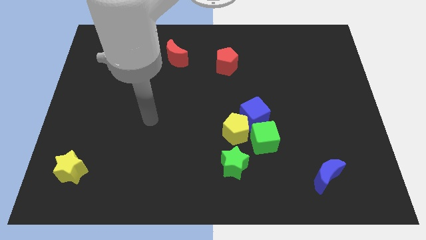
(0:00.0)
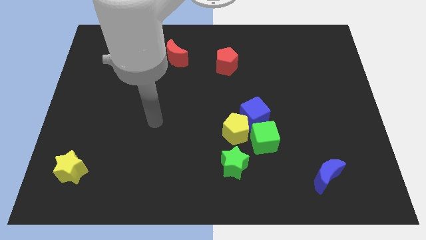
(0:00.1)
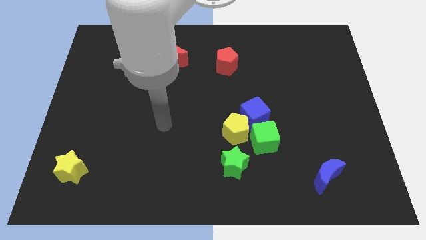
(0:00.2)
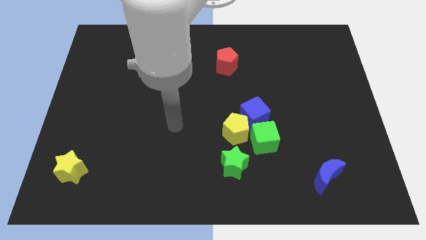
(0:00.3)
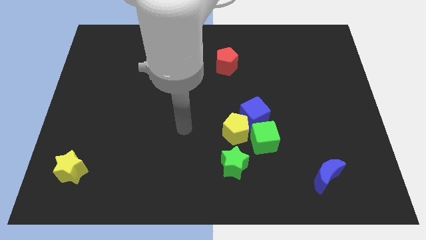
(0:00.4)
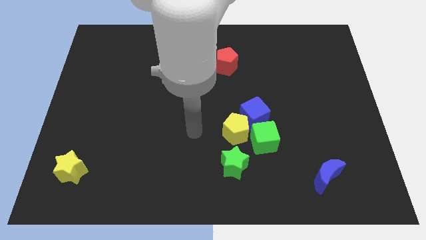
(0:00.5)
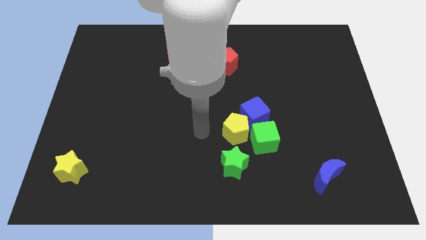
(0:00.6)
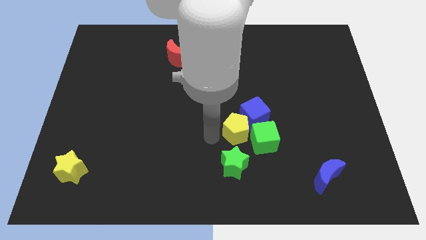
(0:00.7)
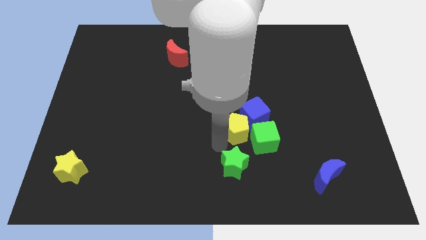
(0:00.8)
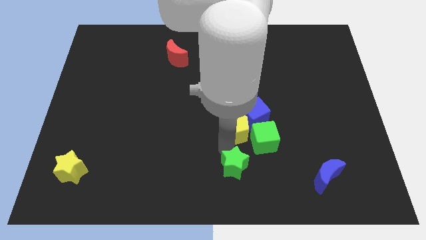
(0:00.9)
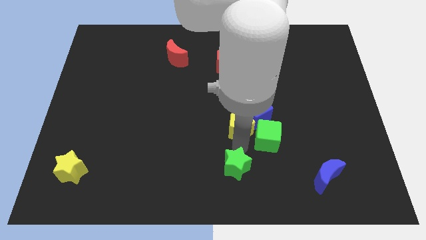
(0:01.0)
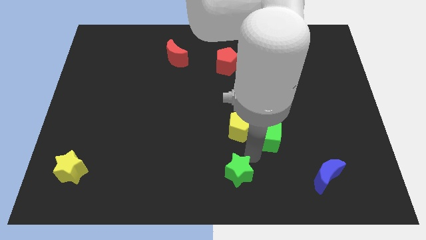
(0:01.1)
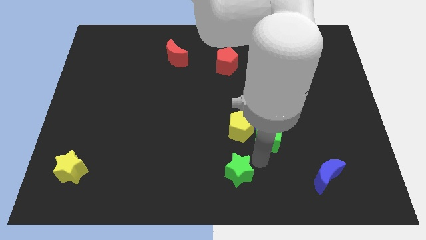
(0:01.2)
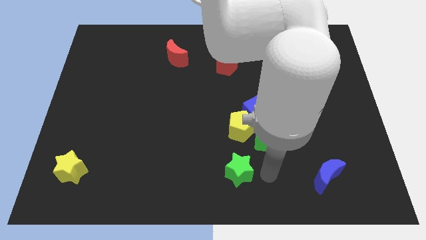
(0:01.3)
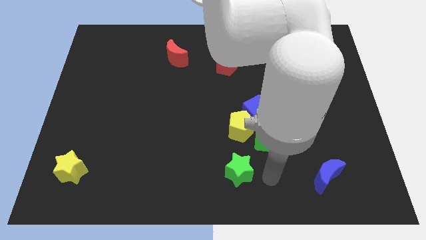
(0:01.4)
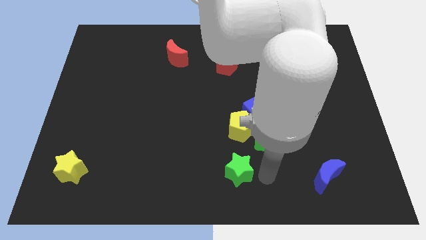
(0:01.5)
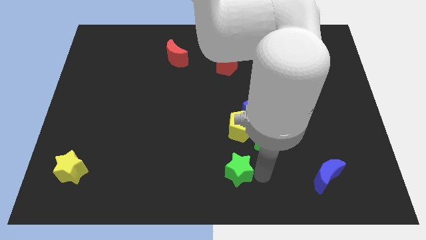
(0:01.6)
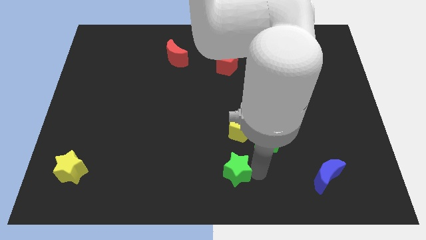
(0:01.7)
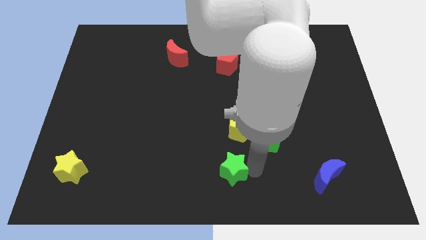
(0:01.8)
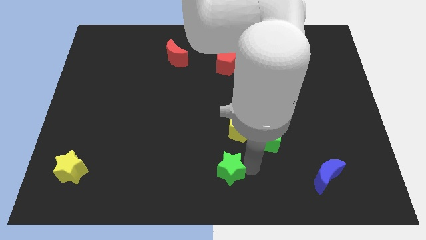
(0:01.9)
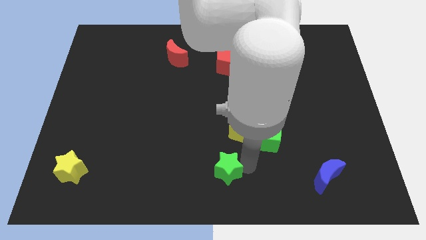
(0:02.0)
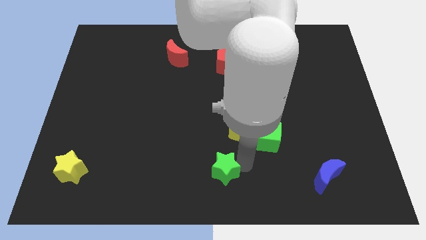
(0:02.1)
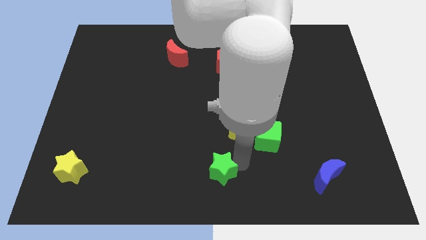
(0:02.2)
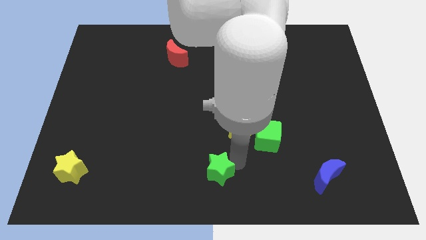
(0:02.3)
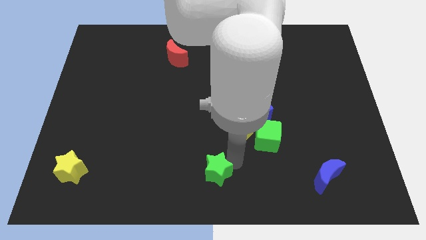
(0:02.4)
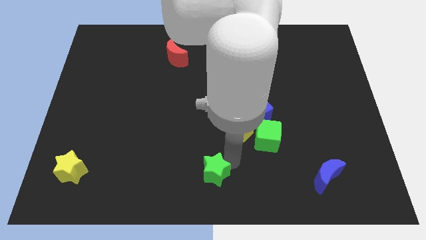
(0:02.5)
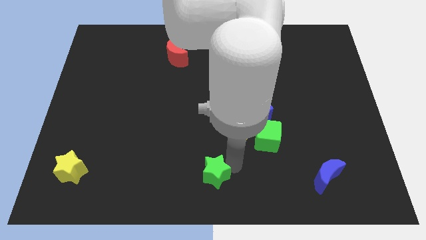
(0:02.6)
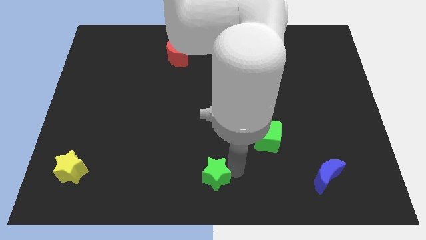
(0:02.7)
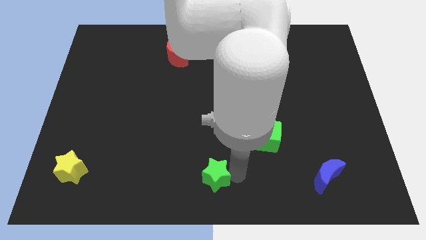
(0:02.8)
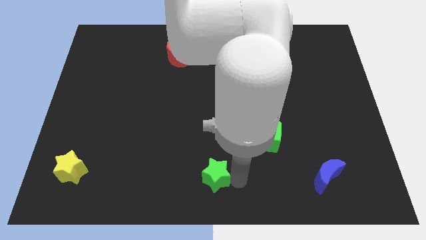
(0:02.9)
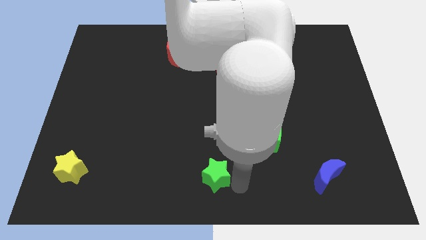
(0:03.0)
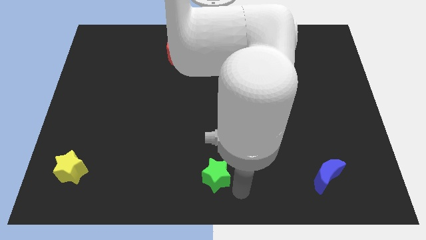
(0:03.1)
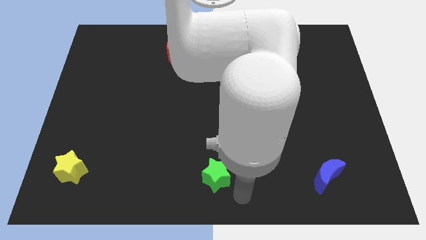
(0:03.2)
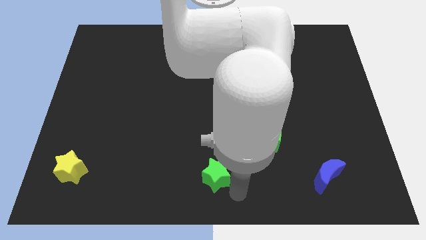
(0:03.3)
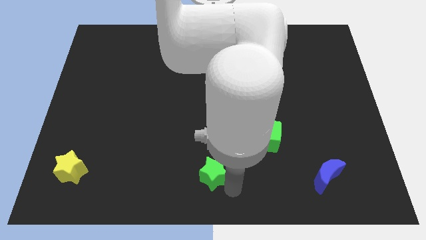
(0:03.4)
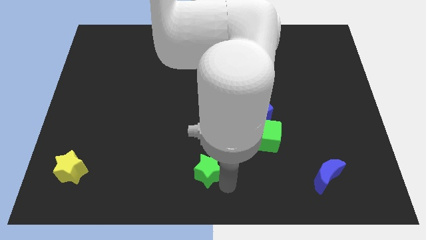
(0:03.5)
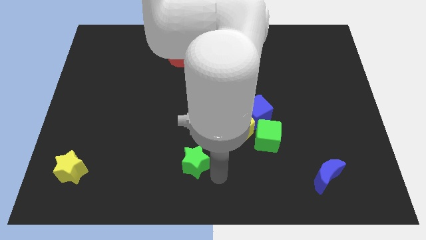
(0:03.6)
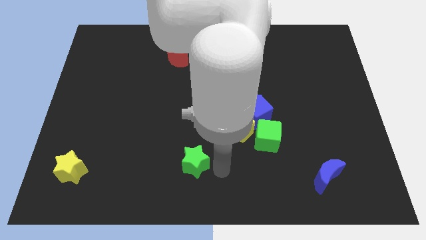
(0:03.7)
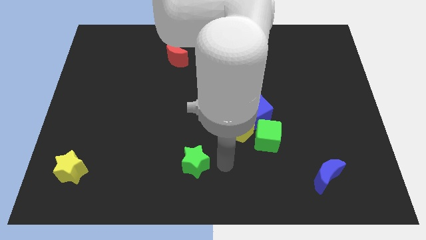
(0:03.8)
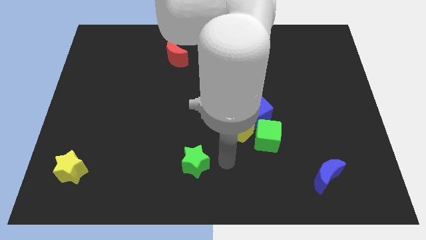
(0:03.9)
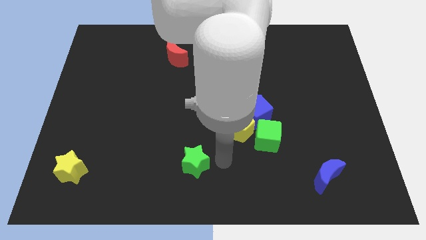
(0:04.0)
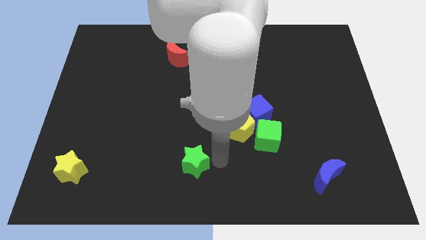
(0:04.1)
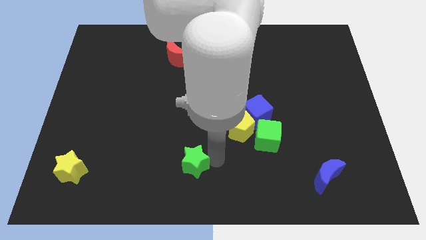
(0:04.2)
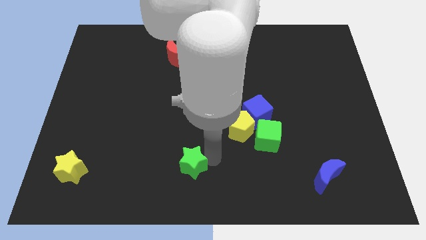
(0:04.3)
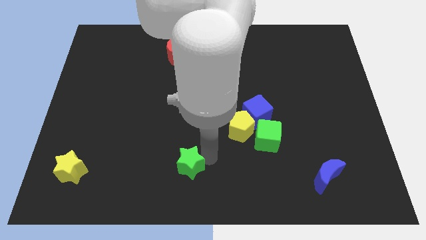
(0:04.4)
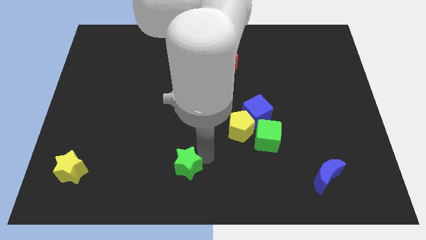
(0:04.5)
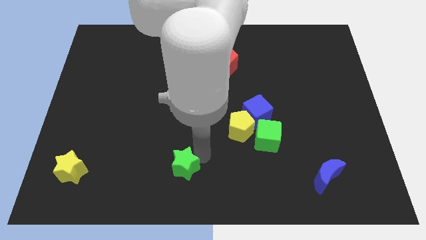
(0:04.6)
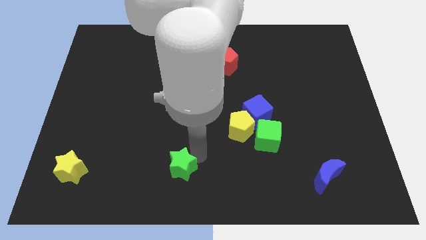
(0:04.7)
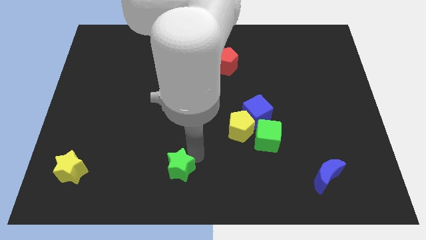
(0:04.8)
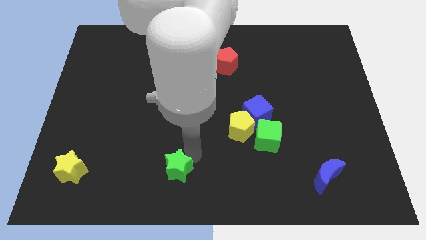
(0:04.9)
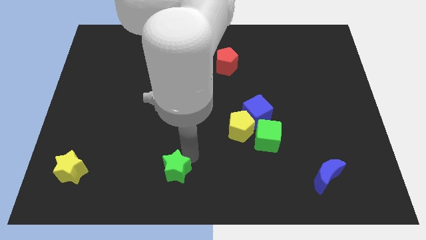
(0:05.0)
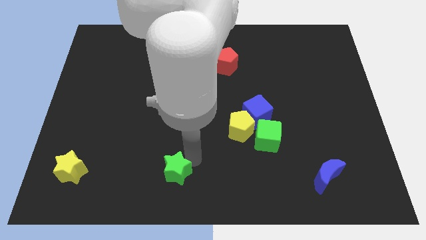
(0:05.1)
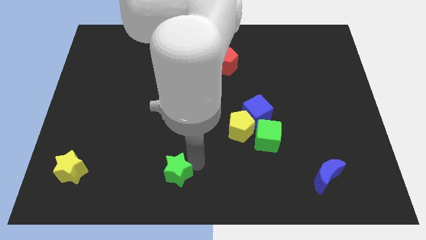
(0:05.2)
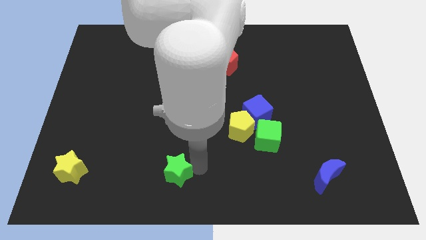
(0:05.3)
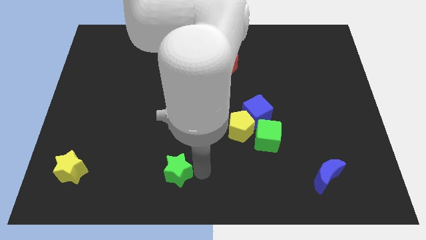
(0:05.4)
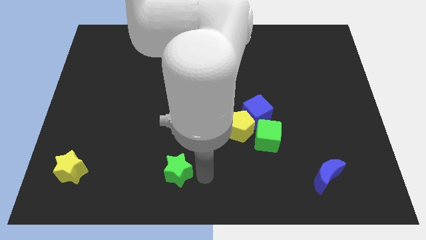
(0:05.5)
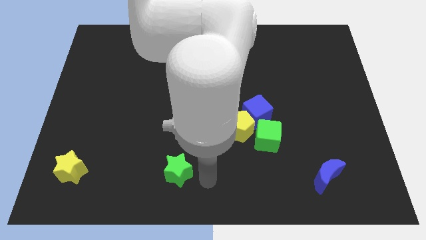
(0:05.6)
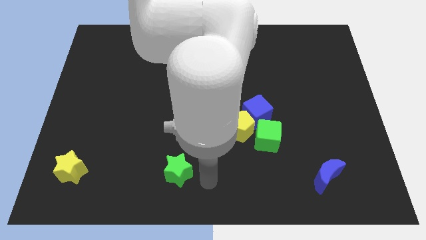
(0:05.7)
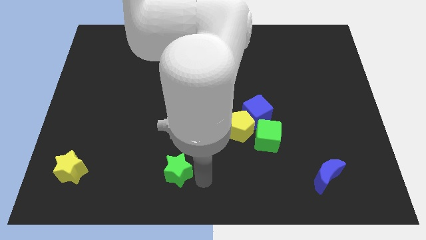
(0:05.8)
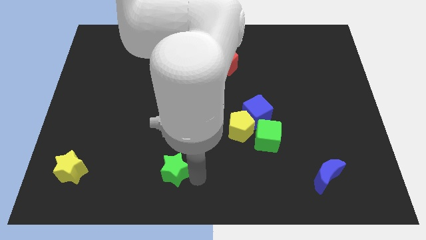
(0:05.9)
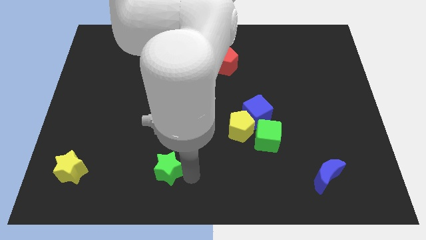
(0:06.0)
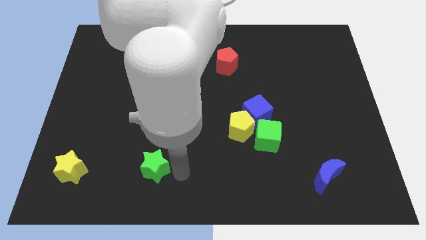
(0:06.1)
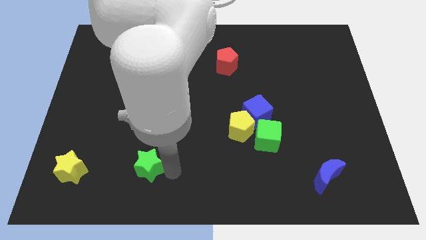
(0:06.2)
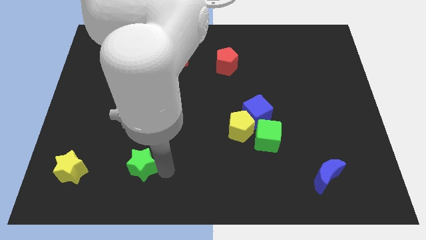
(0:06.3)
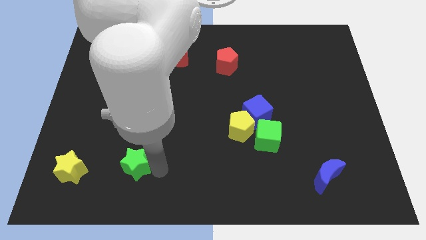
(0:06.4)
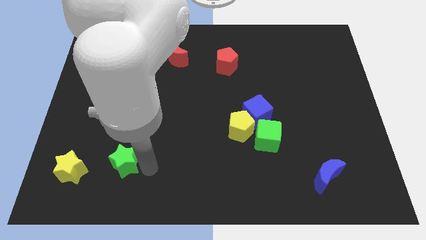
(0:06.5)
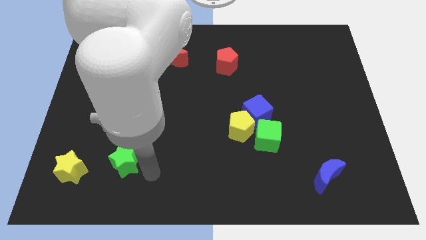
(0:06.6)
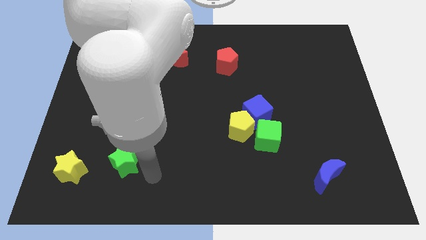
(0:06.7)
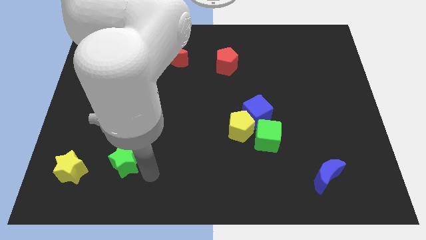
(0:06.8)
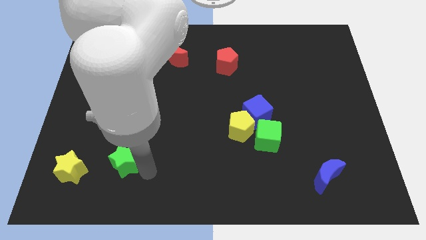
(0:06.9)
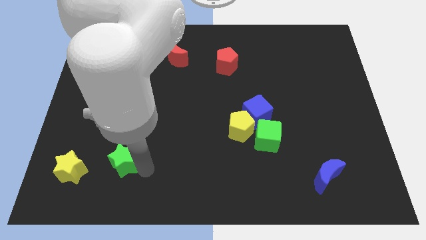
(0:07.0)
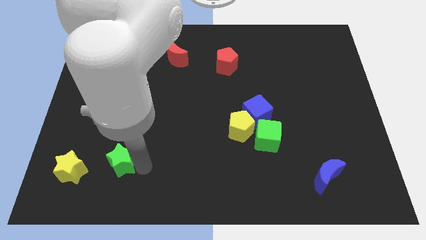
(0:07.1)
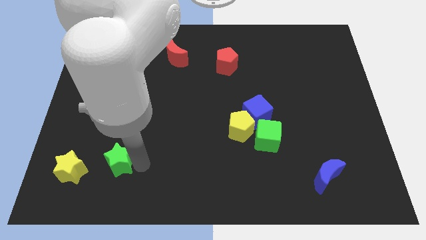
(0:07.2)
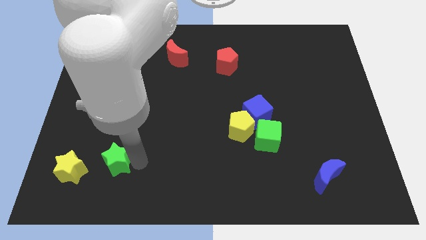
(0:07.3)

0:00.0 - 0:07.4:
push the green star to the top right side of the yellow star
